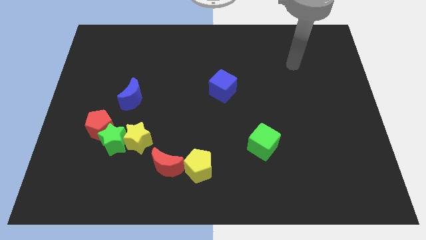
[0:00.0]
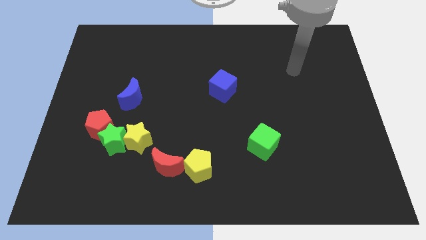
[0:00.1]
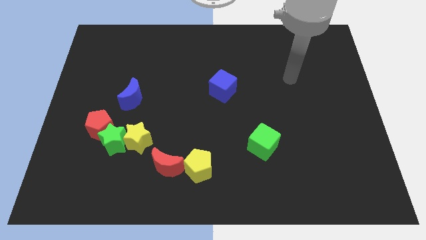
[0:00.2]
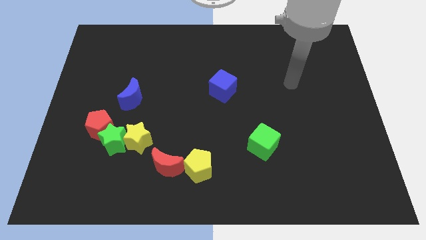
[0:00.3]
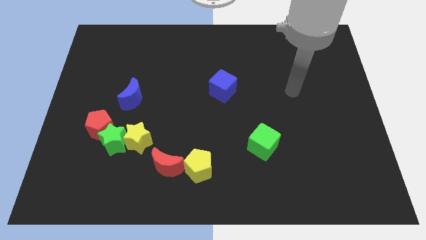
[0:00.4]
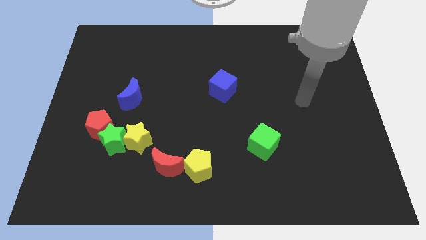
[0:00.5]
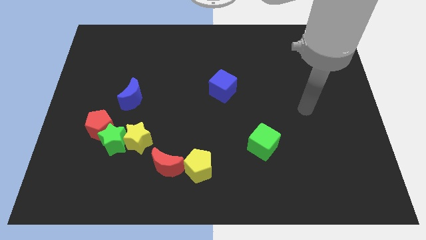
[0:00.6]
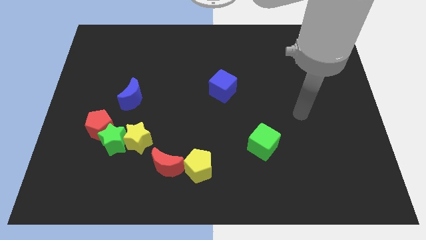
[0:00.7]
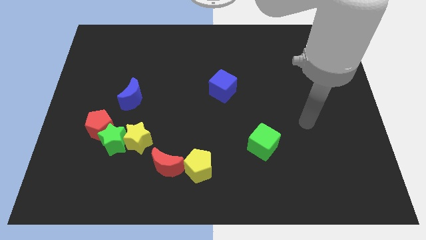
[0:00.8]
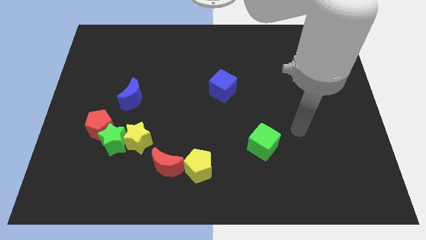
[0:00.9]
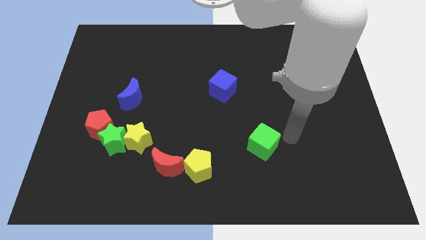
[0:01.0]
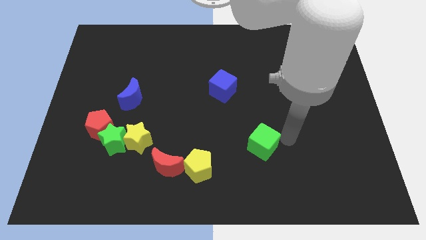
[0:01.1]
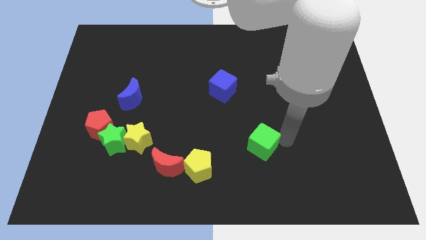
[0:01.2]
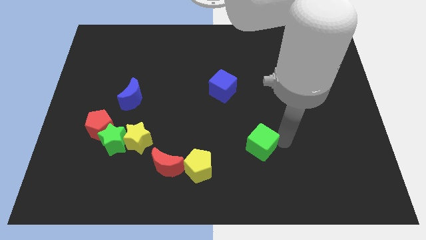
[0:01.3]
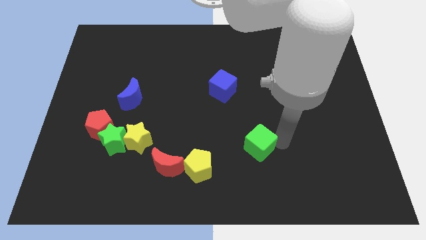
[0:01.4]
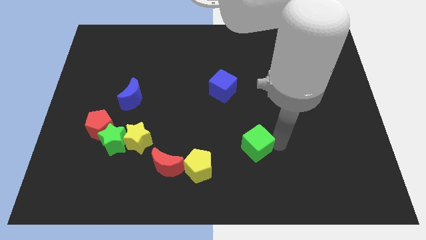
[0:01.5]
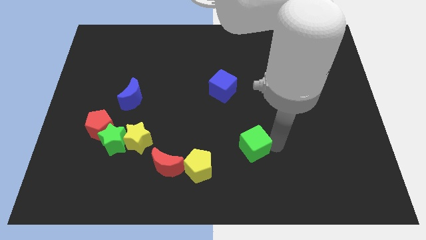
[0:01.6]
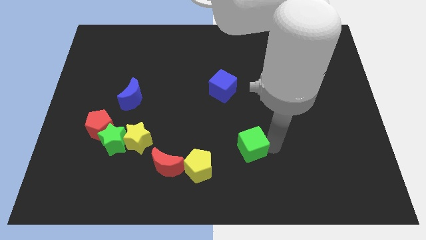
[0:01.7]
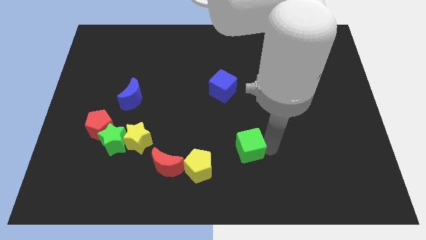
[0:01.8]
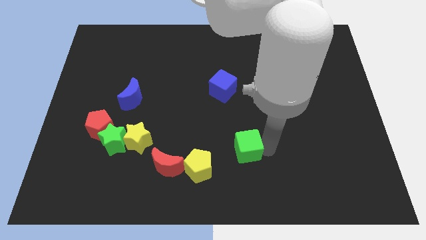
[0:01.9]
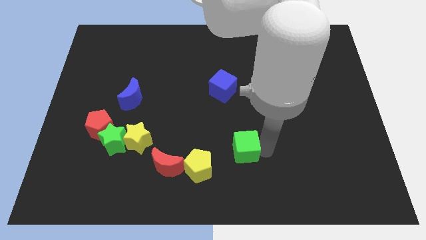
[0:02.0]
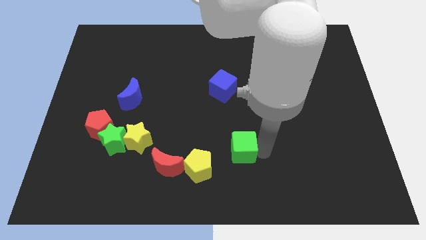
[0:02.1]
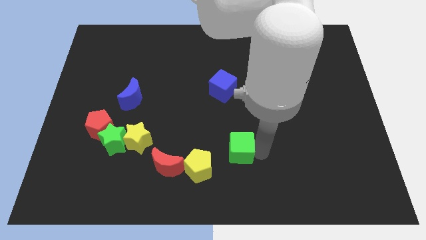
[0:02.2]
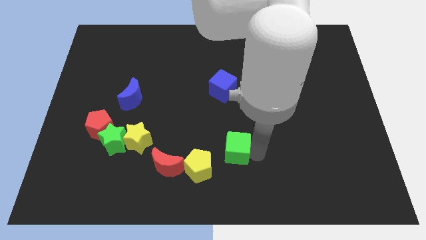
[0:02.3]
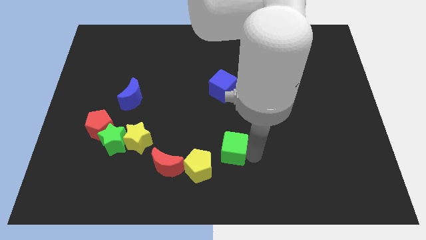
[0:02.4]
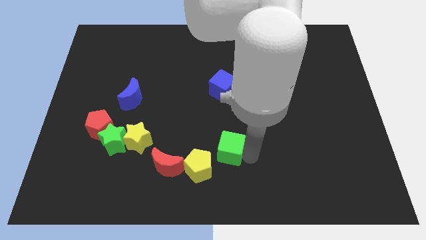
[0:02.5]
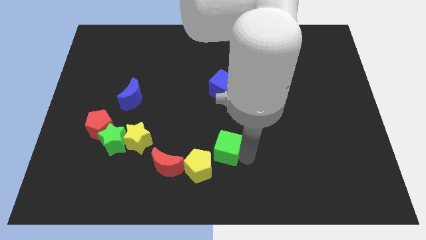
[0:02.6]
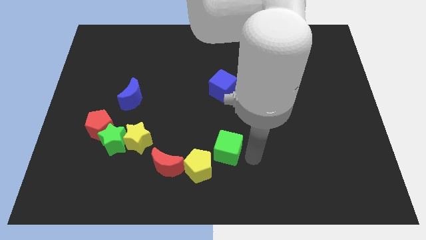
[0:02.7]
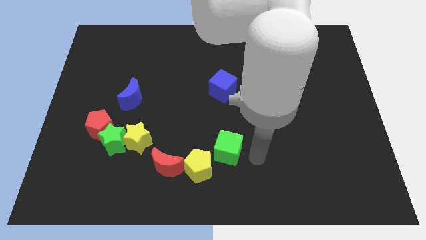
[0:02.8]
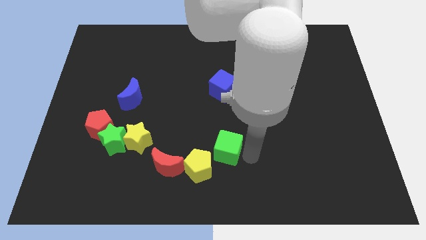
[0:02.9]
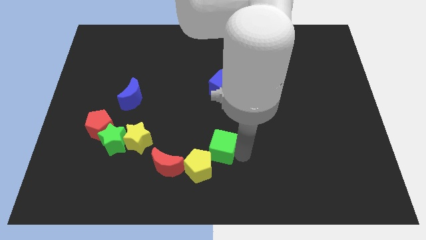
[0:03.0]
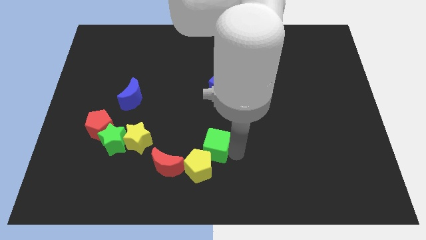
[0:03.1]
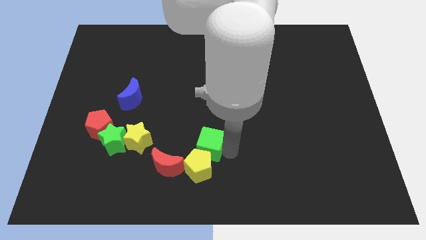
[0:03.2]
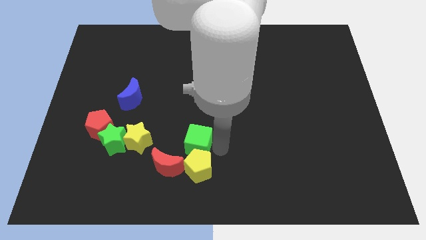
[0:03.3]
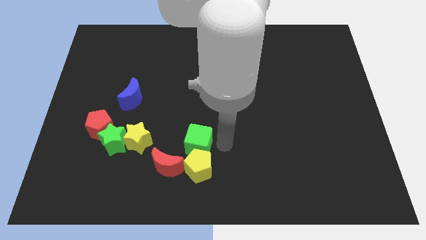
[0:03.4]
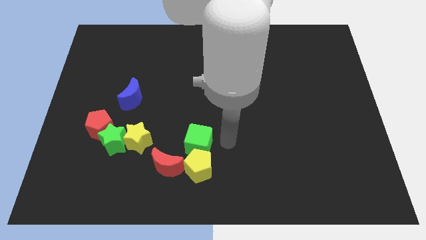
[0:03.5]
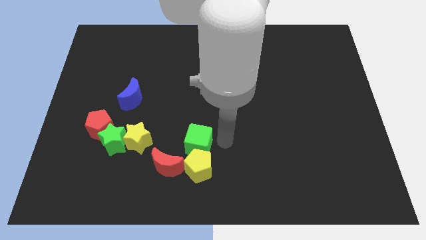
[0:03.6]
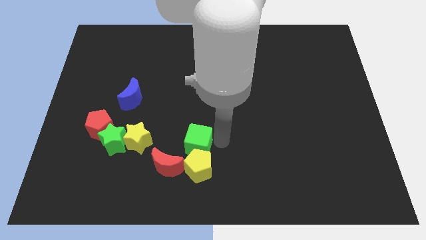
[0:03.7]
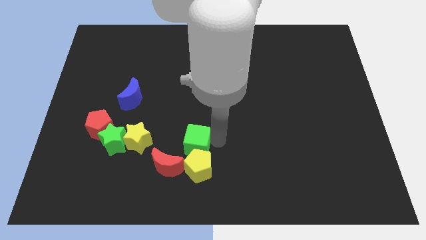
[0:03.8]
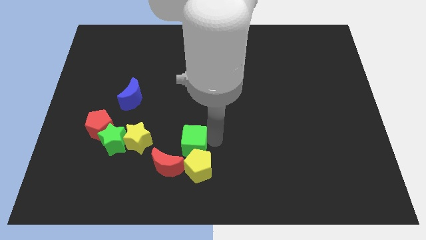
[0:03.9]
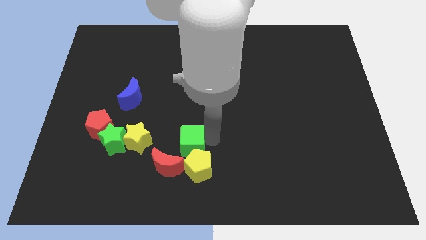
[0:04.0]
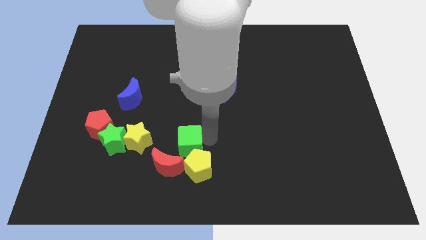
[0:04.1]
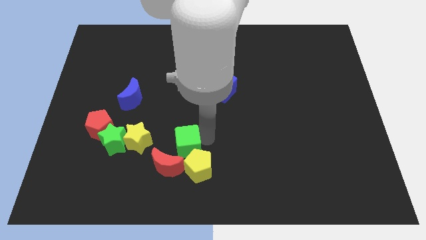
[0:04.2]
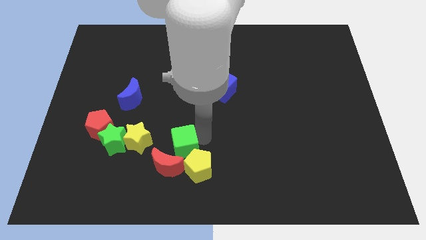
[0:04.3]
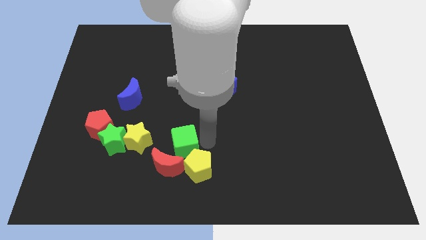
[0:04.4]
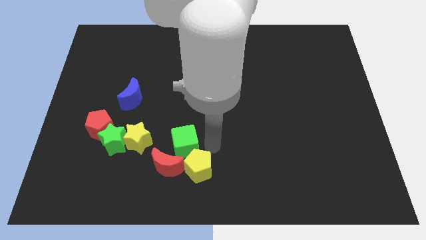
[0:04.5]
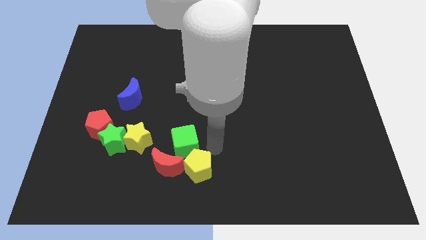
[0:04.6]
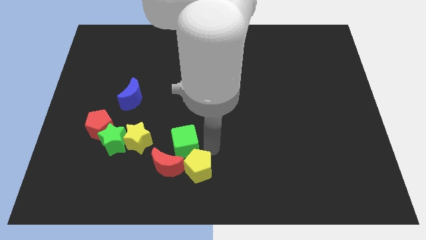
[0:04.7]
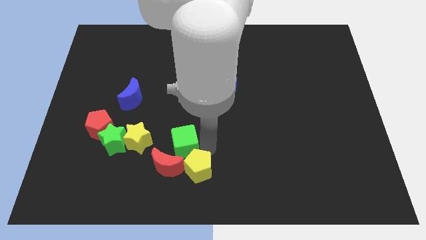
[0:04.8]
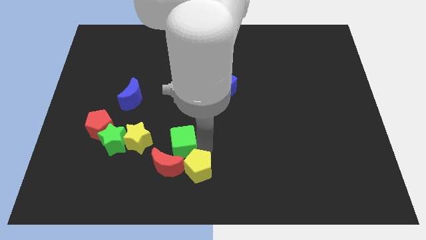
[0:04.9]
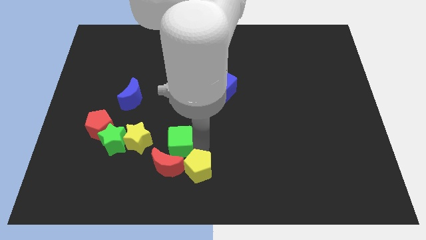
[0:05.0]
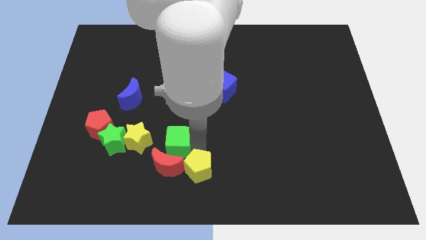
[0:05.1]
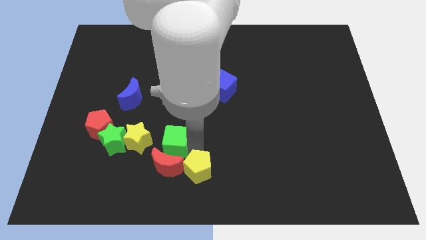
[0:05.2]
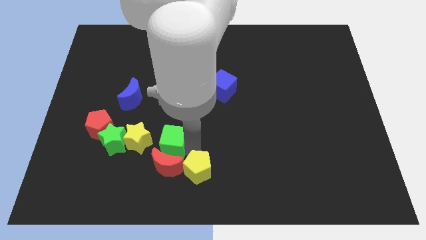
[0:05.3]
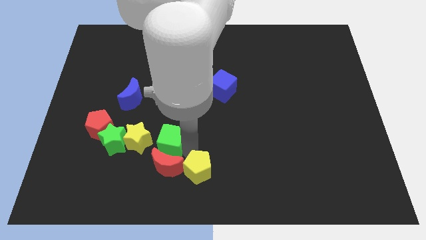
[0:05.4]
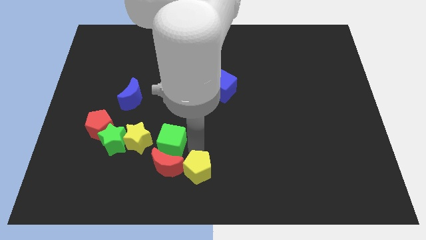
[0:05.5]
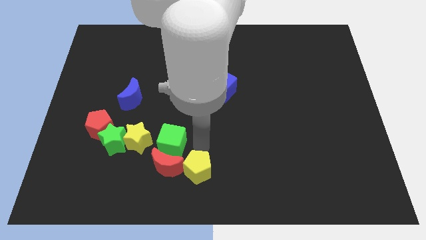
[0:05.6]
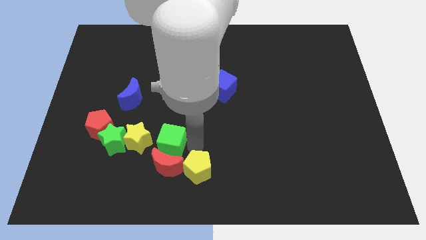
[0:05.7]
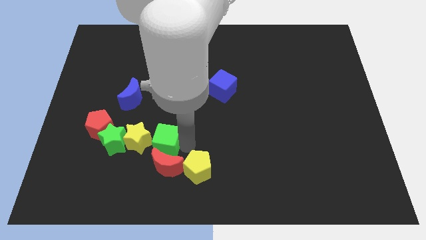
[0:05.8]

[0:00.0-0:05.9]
put the green cube to the yellow star

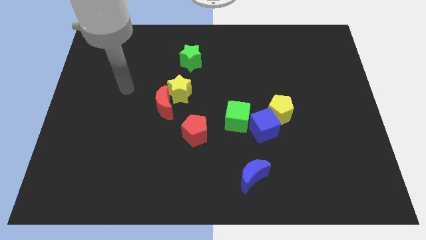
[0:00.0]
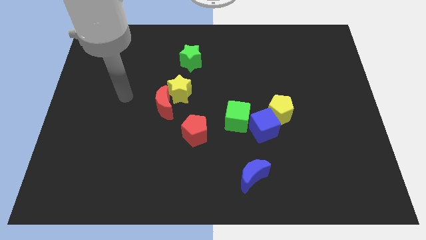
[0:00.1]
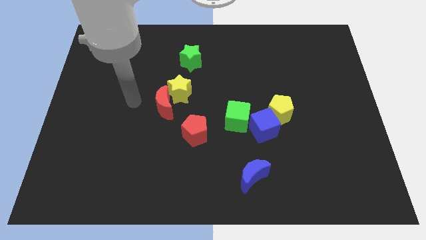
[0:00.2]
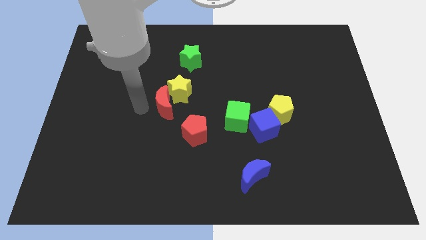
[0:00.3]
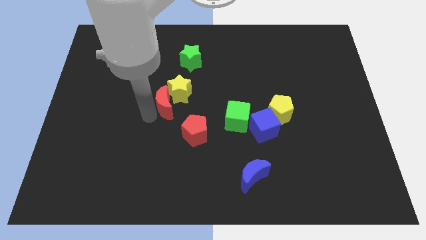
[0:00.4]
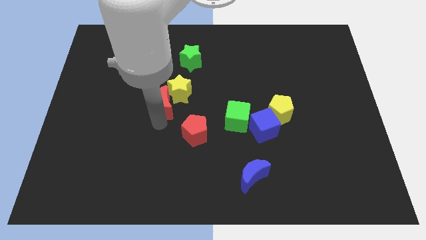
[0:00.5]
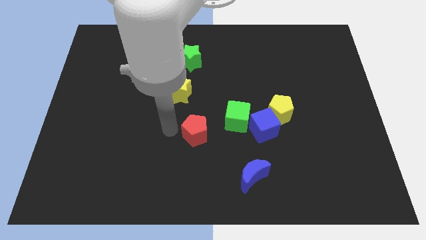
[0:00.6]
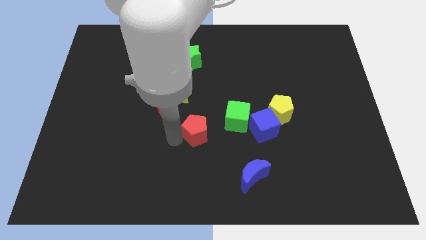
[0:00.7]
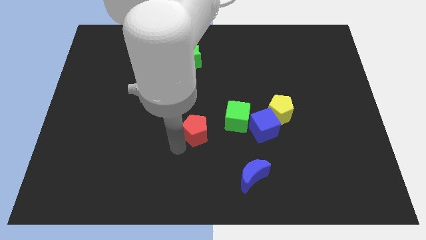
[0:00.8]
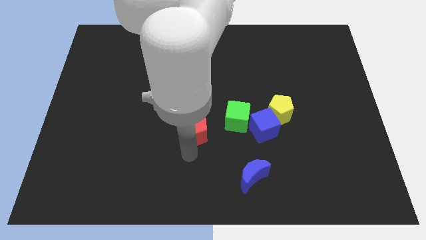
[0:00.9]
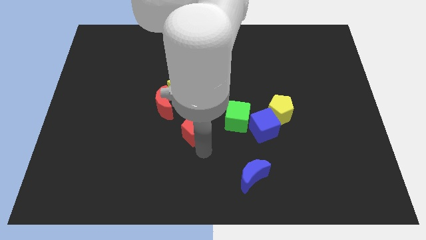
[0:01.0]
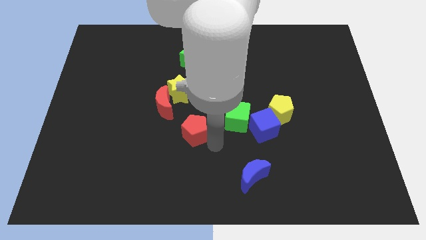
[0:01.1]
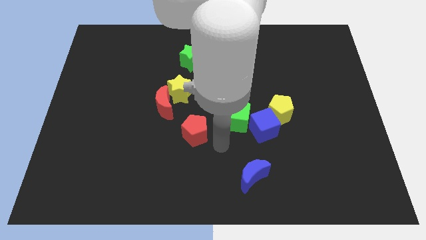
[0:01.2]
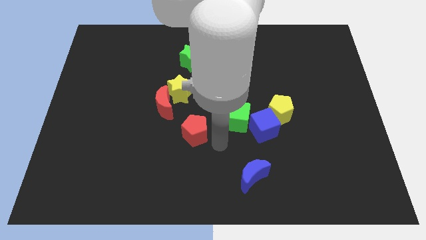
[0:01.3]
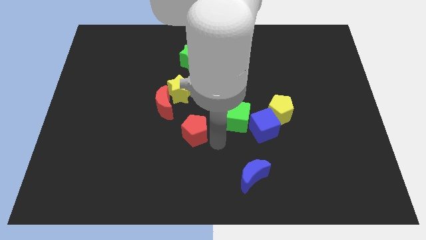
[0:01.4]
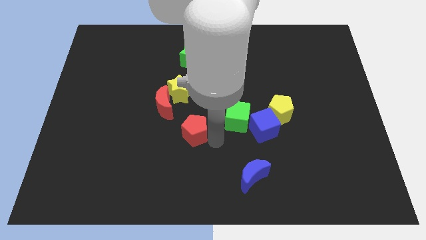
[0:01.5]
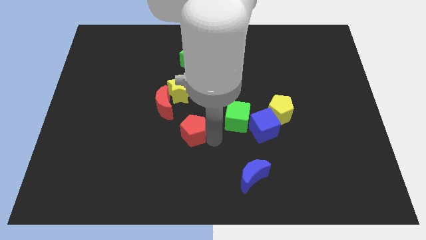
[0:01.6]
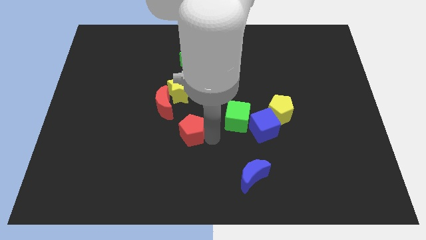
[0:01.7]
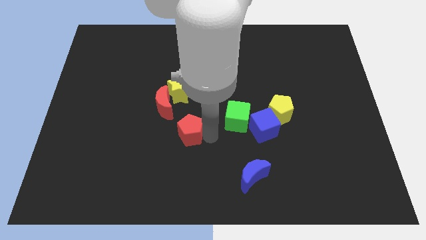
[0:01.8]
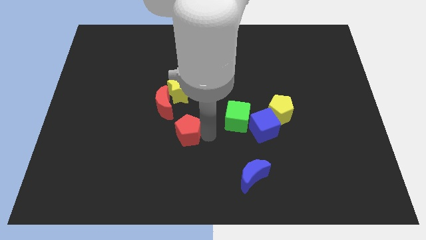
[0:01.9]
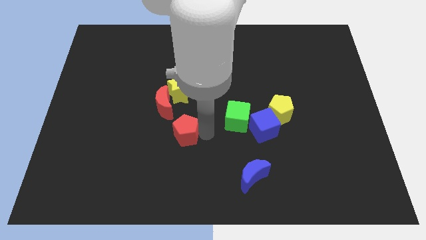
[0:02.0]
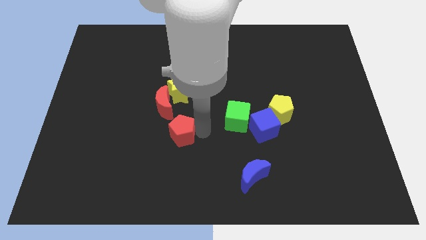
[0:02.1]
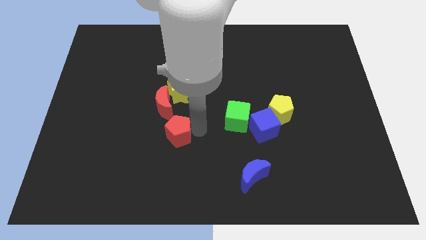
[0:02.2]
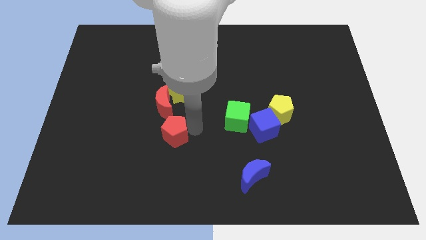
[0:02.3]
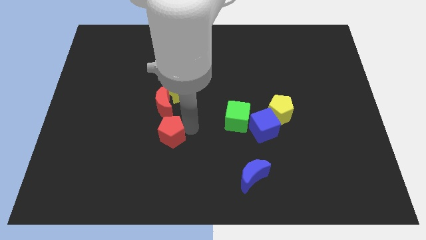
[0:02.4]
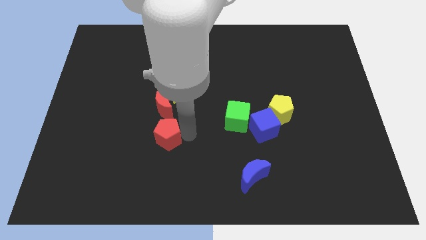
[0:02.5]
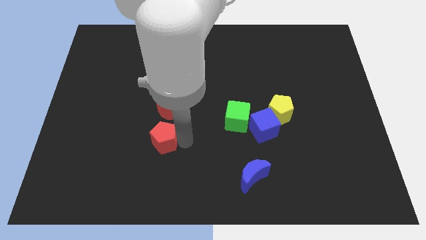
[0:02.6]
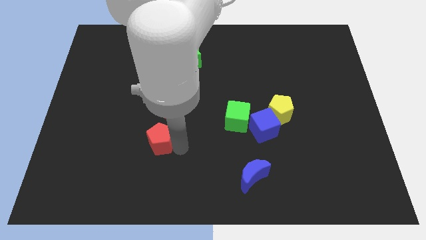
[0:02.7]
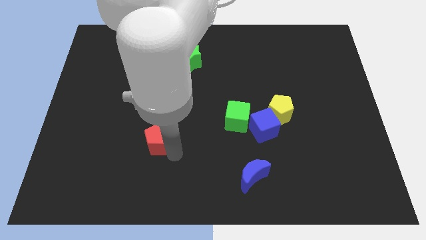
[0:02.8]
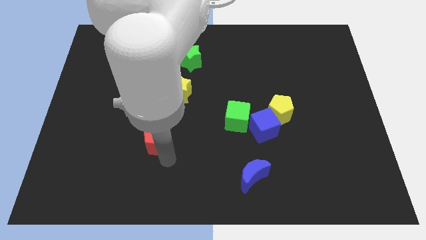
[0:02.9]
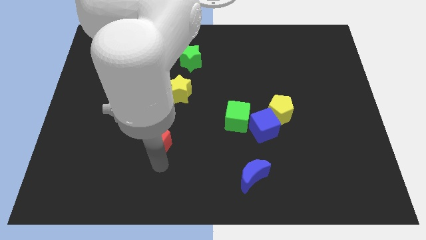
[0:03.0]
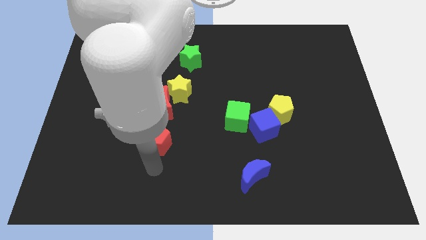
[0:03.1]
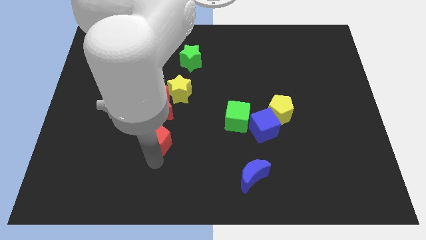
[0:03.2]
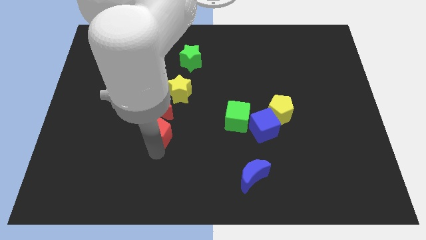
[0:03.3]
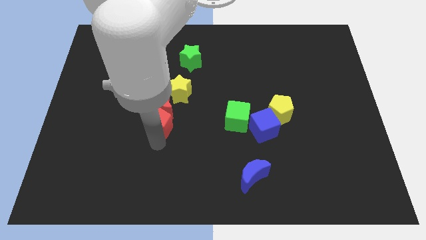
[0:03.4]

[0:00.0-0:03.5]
move the red pentagon next to the red moon
